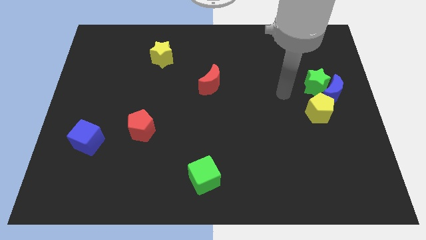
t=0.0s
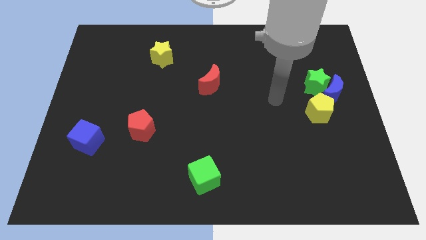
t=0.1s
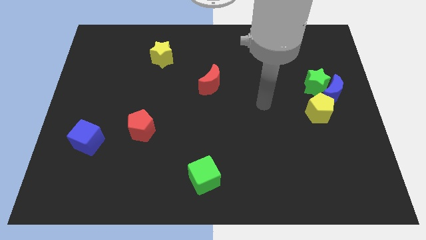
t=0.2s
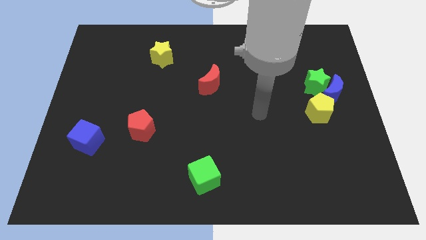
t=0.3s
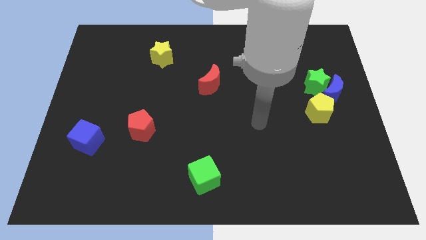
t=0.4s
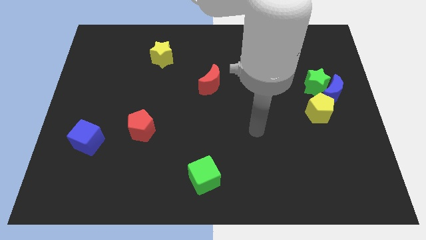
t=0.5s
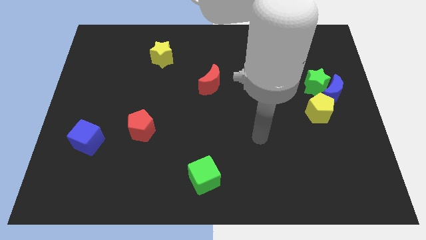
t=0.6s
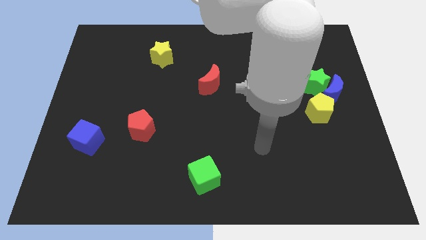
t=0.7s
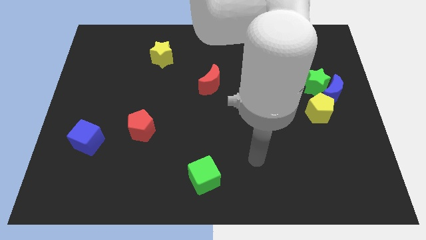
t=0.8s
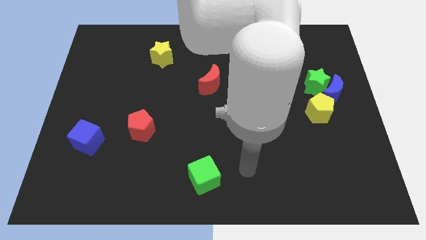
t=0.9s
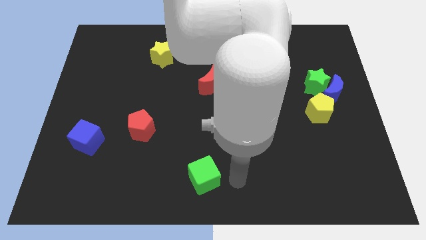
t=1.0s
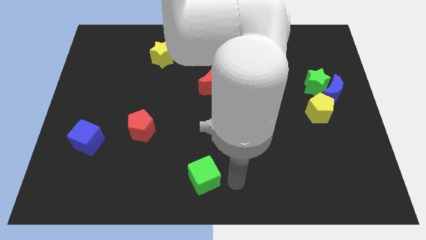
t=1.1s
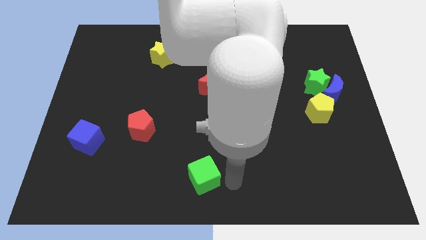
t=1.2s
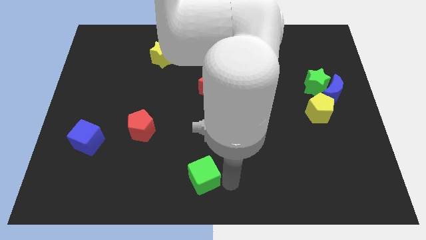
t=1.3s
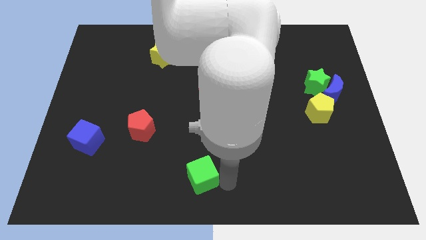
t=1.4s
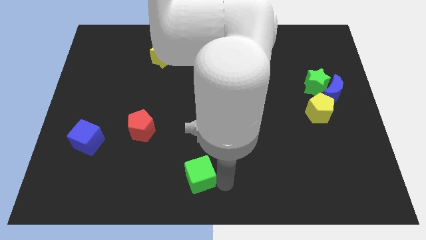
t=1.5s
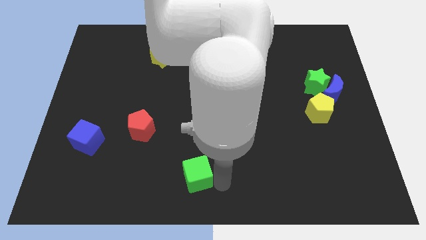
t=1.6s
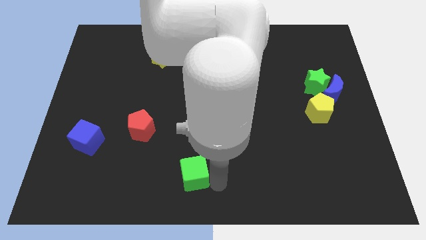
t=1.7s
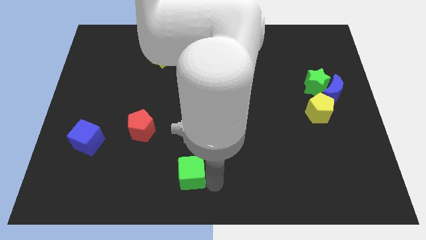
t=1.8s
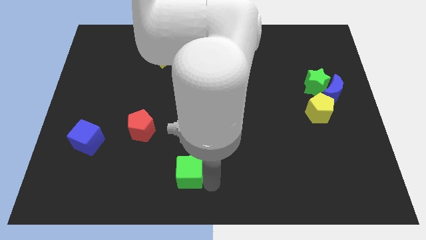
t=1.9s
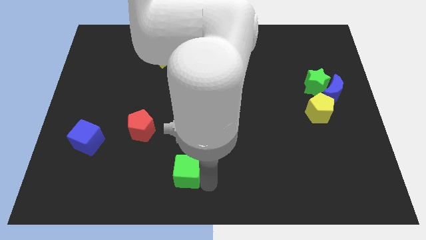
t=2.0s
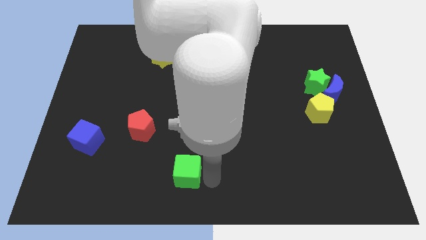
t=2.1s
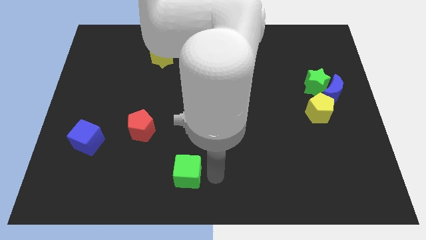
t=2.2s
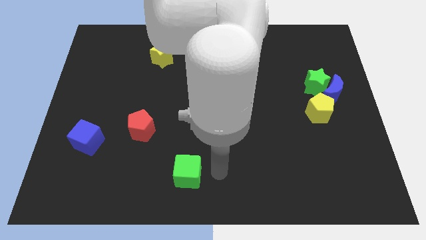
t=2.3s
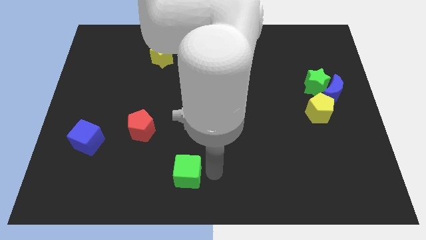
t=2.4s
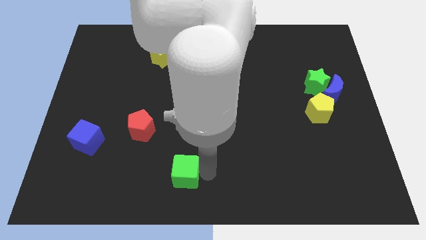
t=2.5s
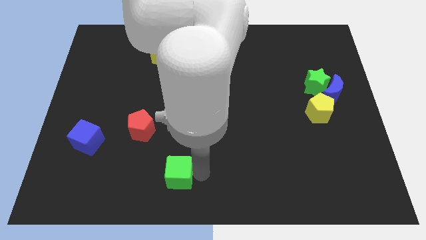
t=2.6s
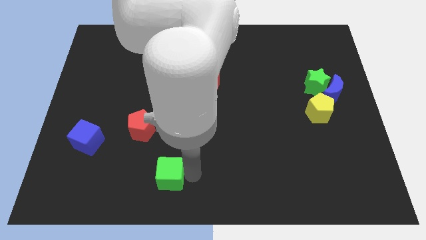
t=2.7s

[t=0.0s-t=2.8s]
slightly push the green cube to the left

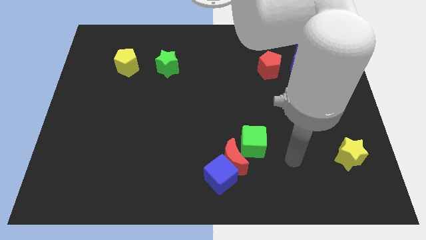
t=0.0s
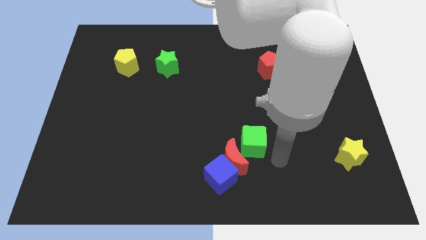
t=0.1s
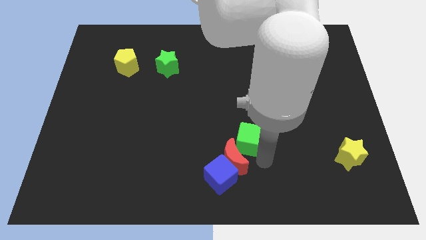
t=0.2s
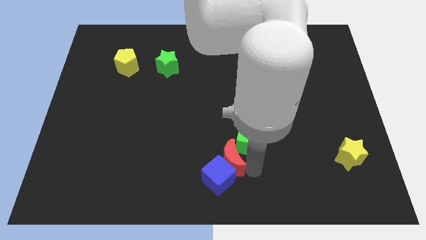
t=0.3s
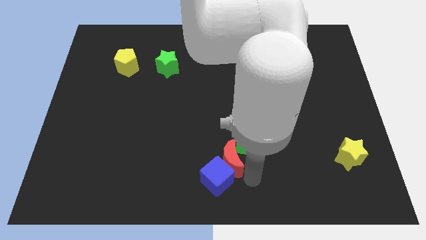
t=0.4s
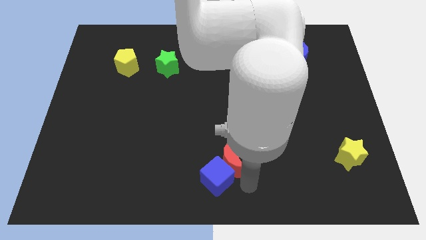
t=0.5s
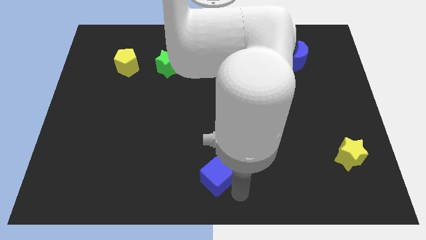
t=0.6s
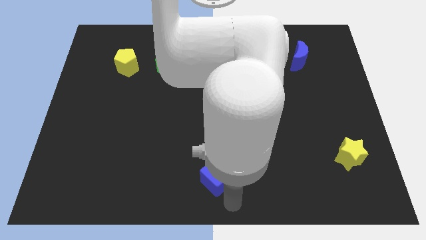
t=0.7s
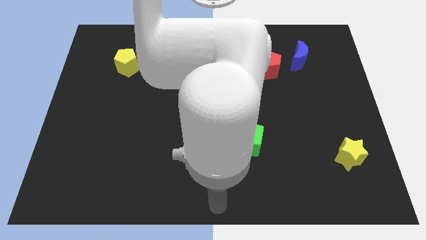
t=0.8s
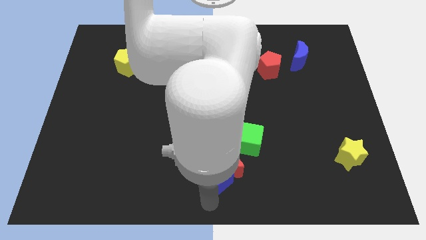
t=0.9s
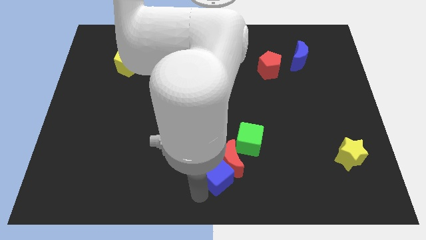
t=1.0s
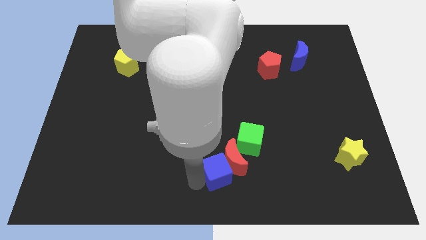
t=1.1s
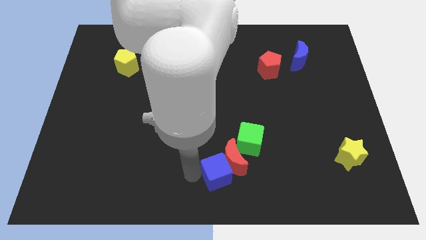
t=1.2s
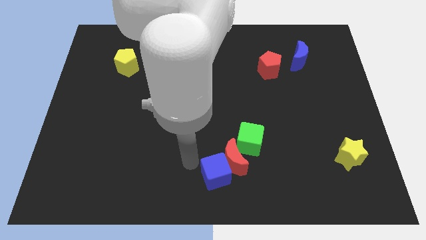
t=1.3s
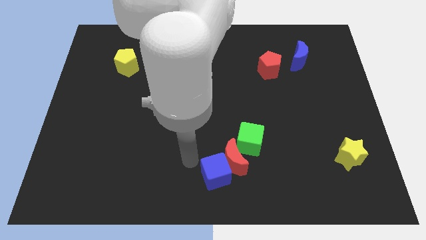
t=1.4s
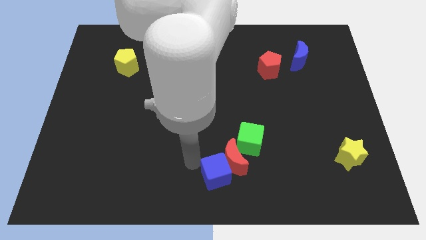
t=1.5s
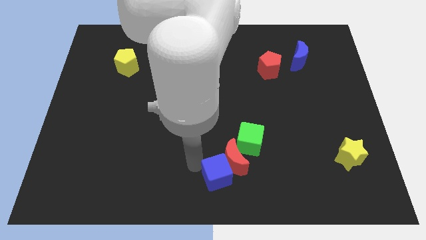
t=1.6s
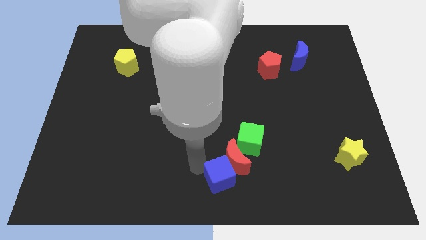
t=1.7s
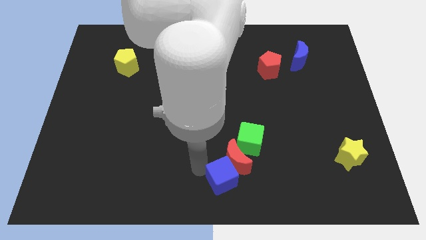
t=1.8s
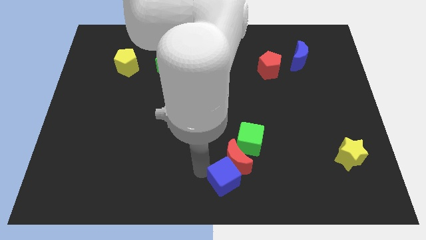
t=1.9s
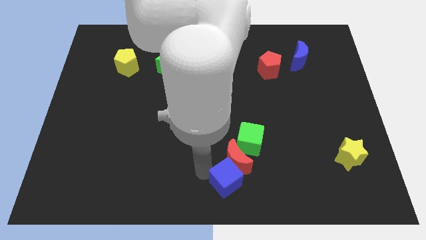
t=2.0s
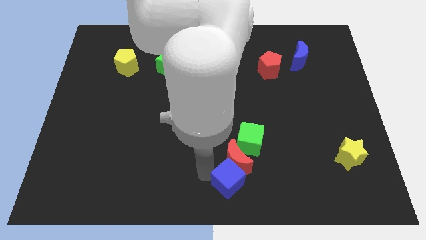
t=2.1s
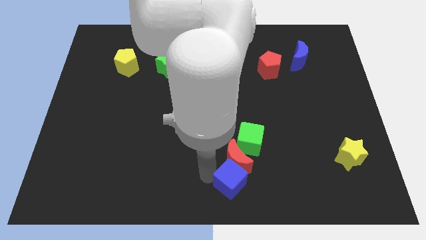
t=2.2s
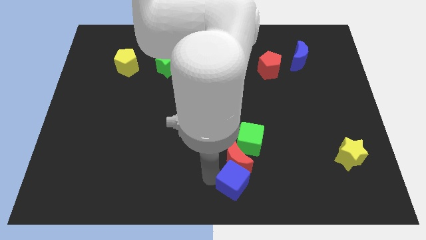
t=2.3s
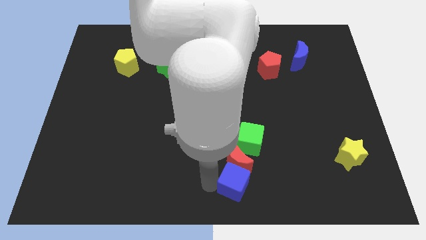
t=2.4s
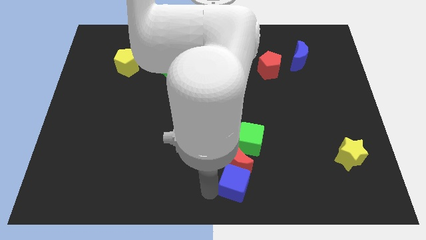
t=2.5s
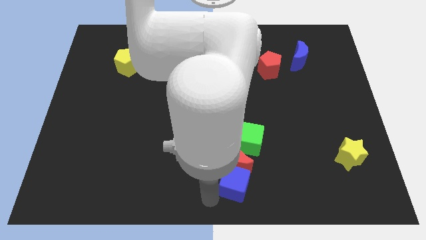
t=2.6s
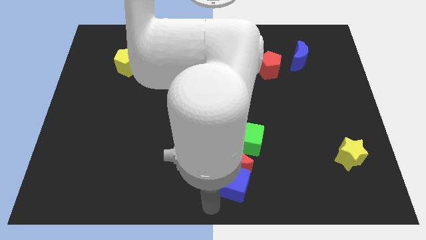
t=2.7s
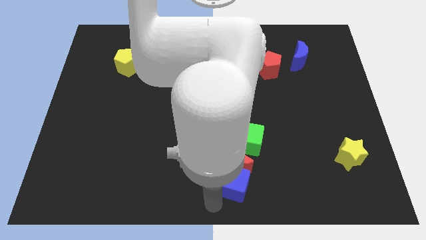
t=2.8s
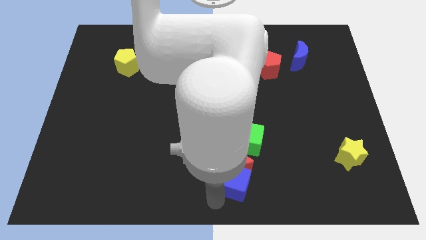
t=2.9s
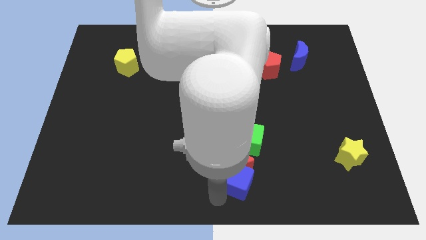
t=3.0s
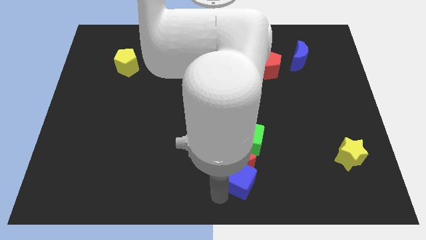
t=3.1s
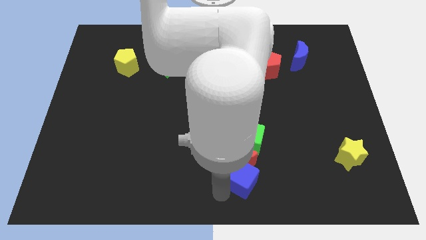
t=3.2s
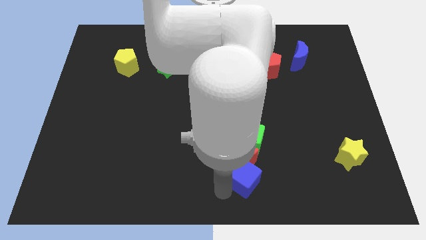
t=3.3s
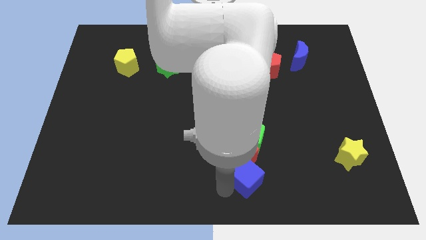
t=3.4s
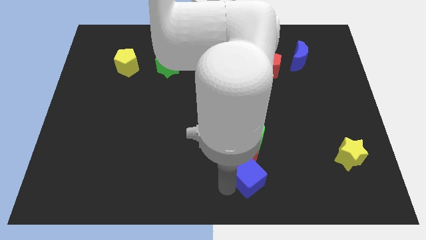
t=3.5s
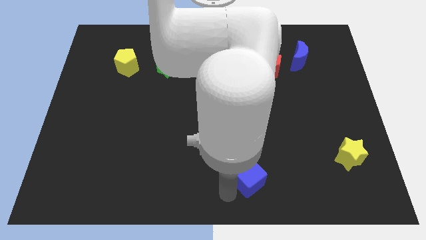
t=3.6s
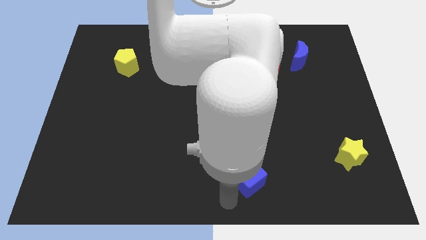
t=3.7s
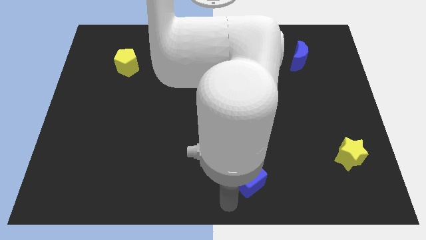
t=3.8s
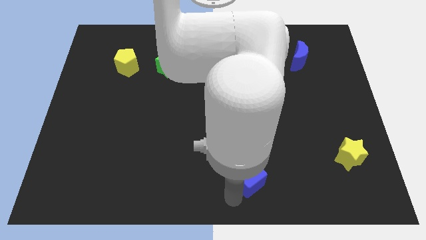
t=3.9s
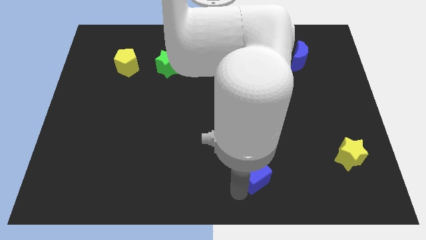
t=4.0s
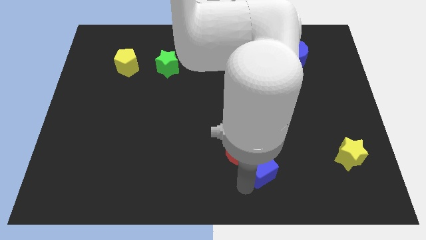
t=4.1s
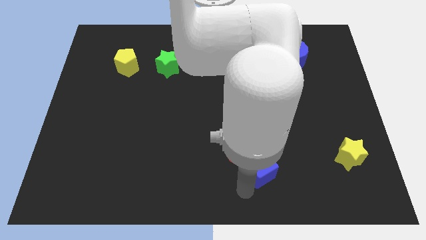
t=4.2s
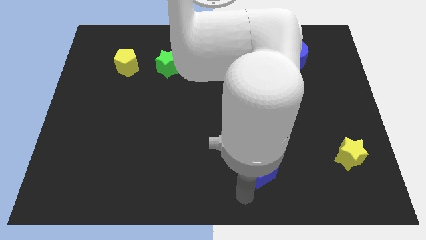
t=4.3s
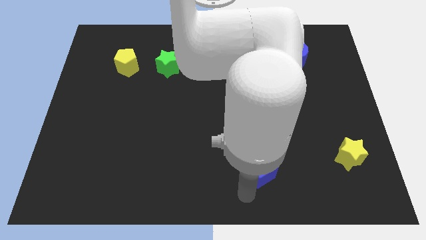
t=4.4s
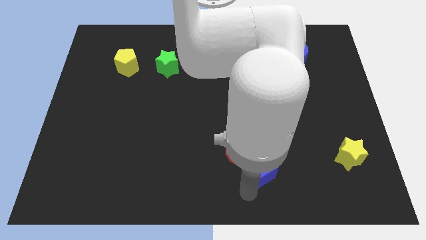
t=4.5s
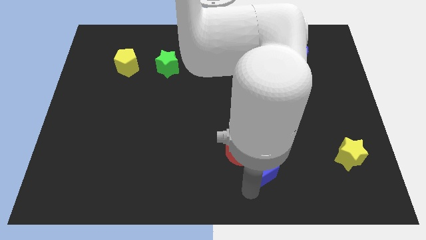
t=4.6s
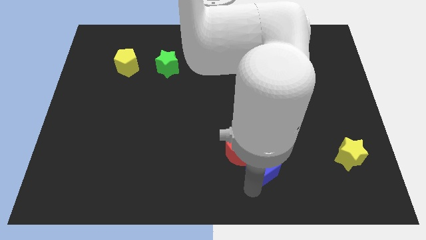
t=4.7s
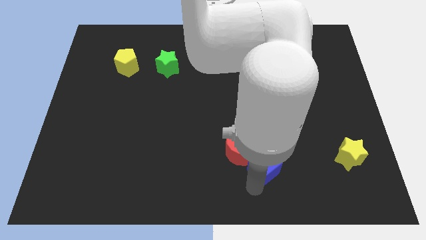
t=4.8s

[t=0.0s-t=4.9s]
slide the blue cube a little bit diagonally up and right

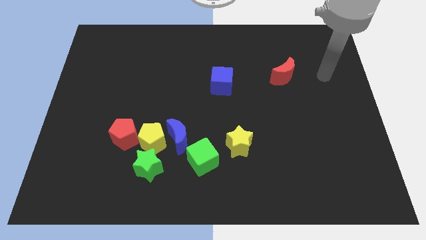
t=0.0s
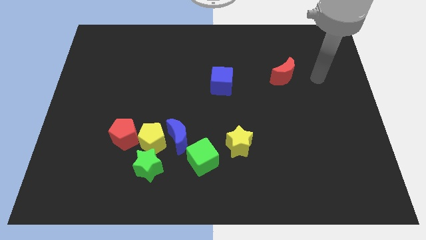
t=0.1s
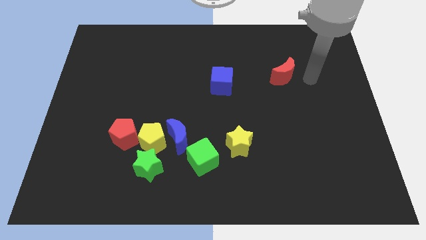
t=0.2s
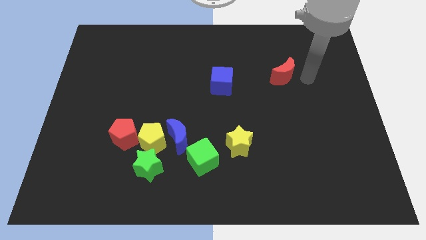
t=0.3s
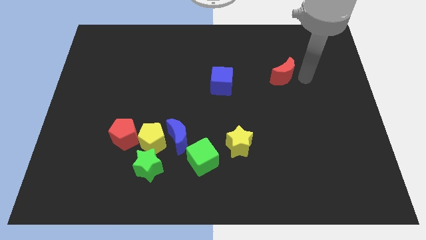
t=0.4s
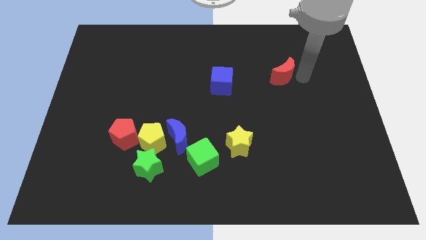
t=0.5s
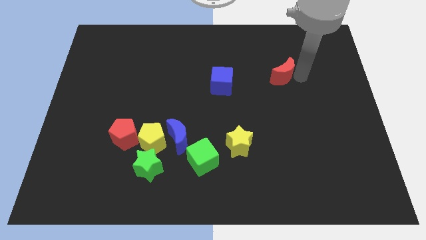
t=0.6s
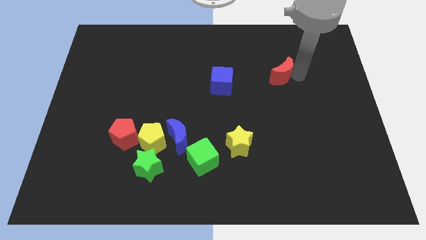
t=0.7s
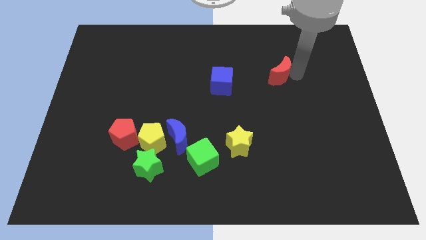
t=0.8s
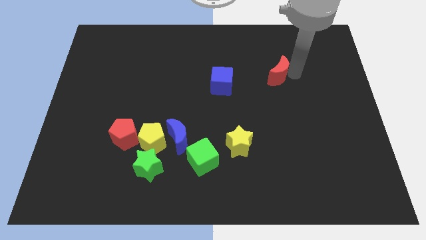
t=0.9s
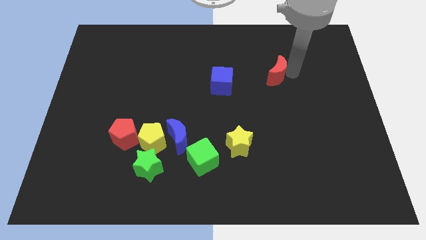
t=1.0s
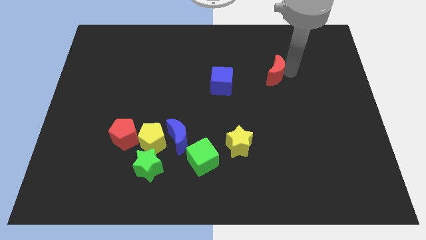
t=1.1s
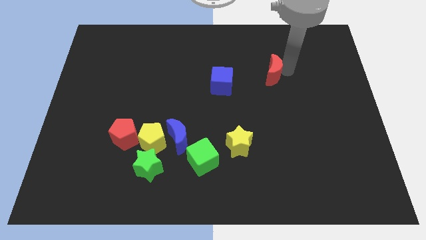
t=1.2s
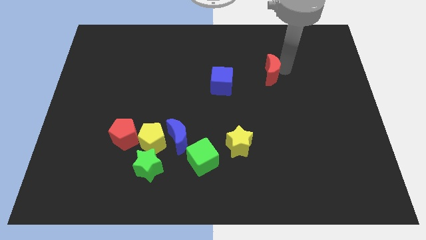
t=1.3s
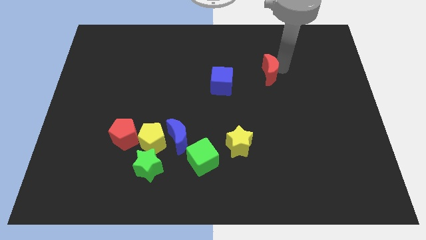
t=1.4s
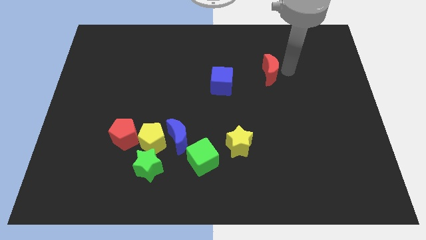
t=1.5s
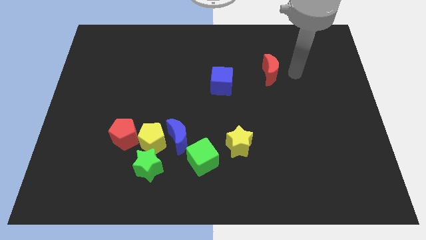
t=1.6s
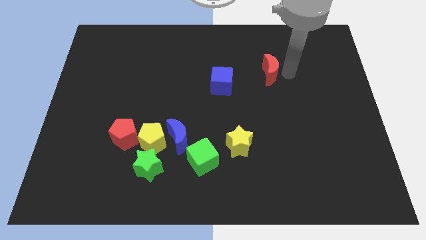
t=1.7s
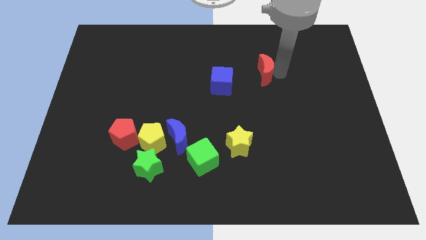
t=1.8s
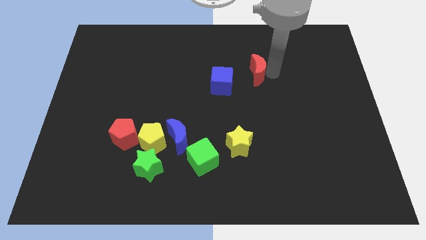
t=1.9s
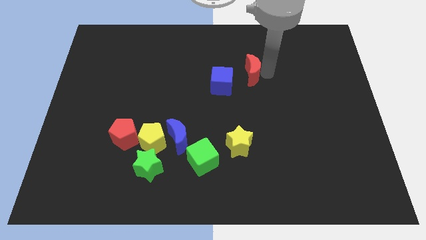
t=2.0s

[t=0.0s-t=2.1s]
slightly move the red moon to the left
